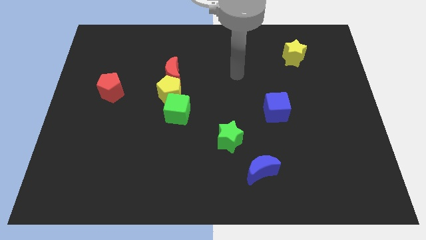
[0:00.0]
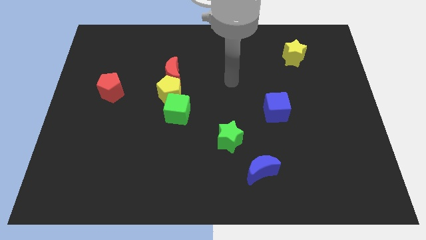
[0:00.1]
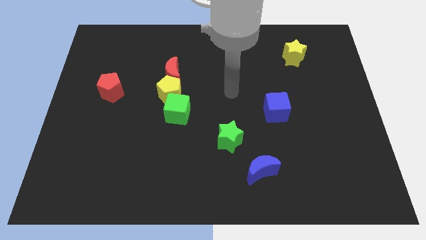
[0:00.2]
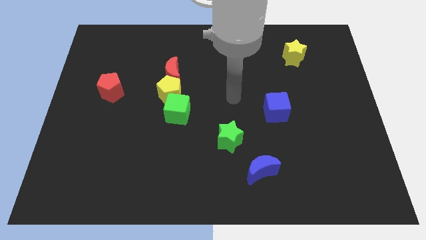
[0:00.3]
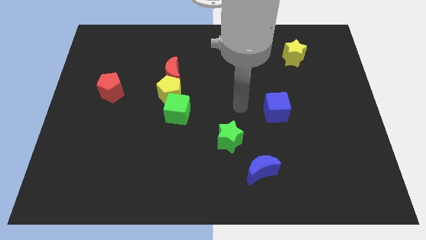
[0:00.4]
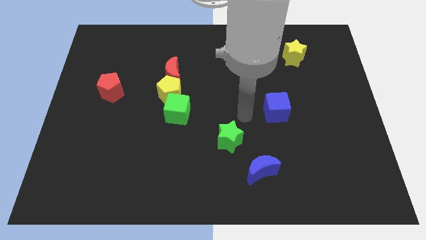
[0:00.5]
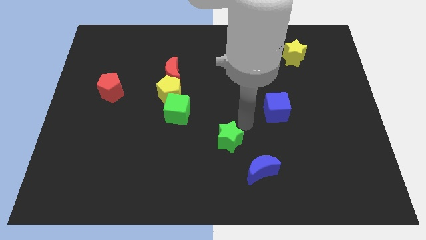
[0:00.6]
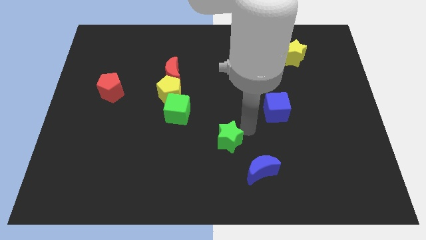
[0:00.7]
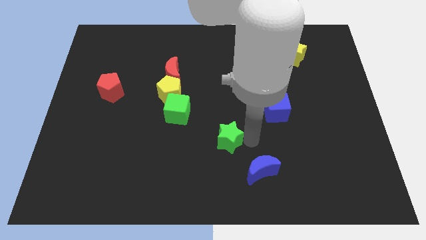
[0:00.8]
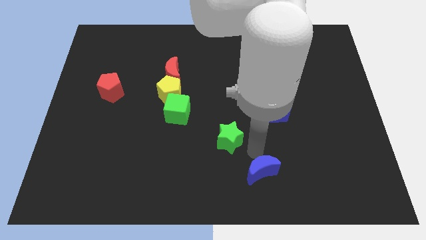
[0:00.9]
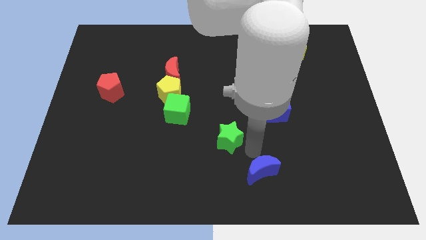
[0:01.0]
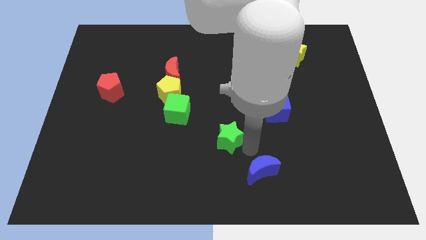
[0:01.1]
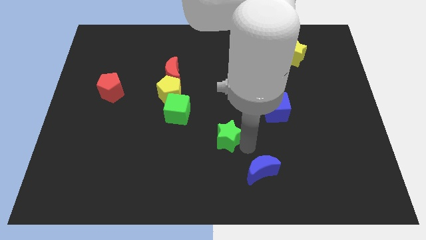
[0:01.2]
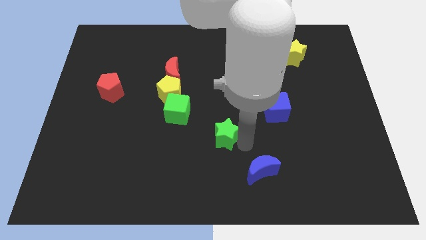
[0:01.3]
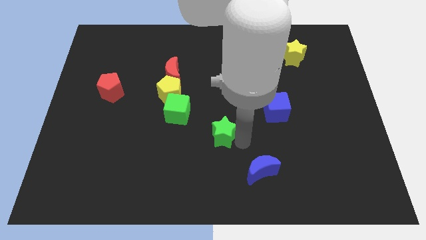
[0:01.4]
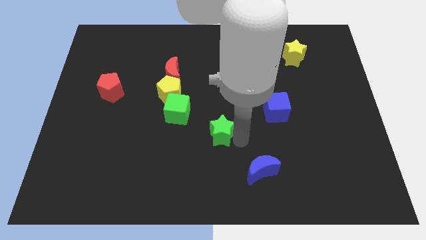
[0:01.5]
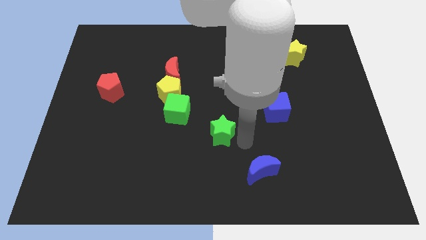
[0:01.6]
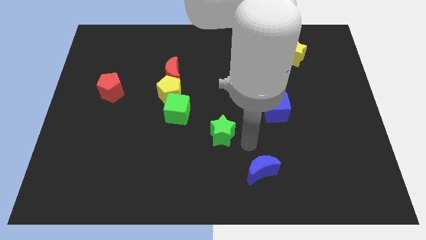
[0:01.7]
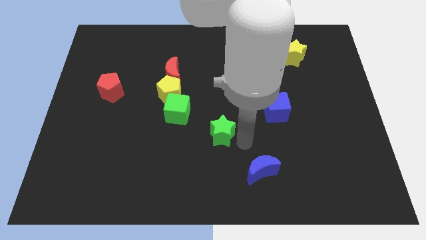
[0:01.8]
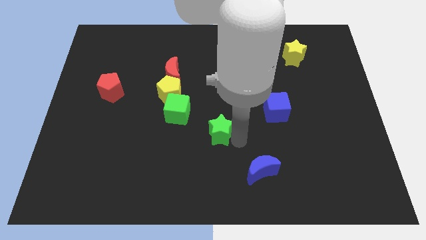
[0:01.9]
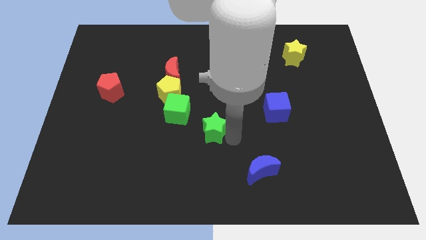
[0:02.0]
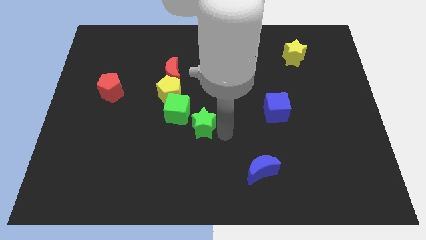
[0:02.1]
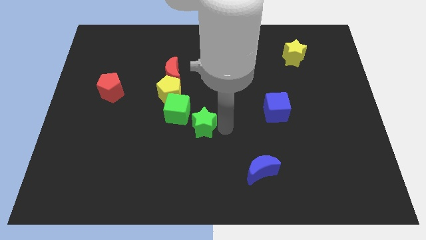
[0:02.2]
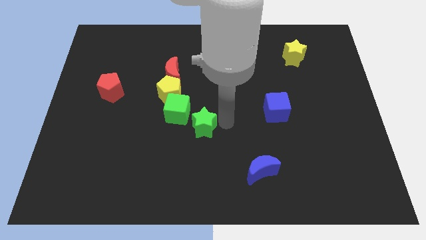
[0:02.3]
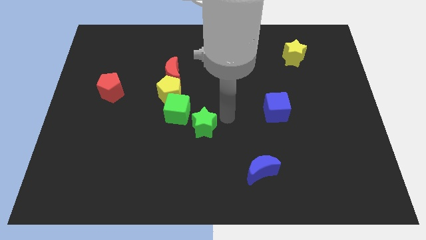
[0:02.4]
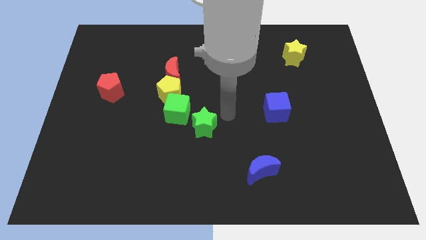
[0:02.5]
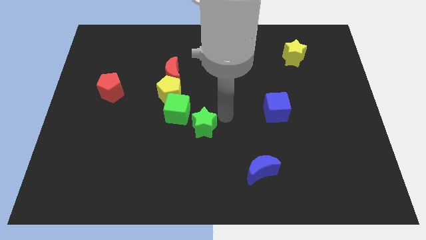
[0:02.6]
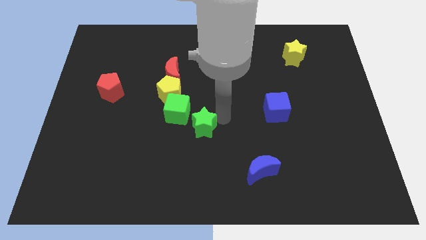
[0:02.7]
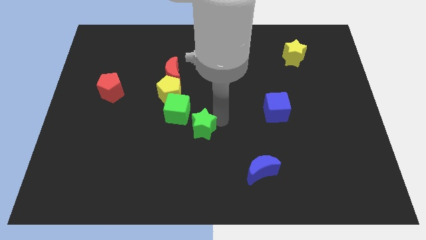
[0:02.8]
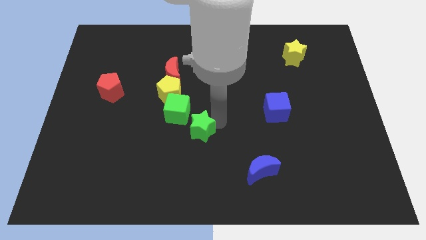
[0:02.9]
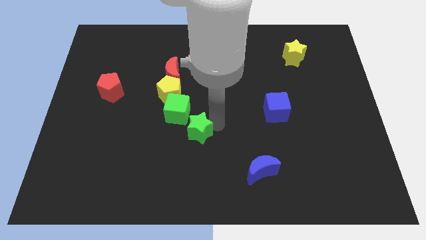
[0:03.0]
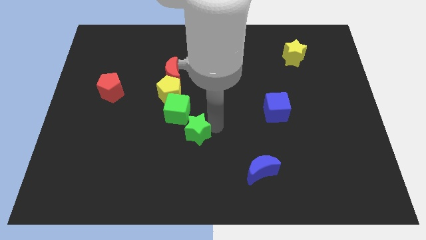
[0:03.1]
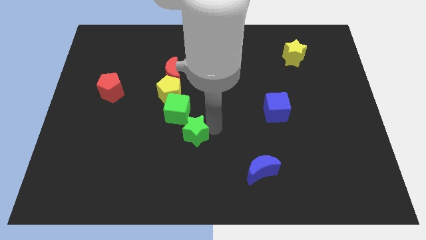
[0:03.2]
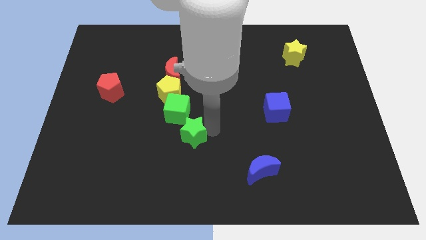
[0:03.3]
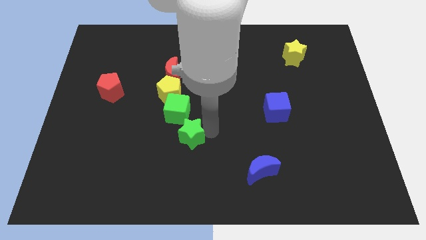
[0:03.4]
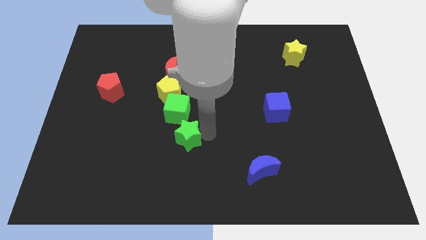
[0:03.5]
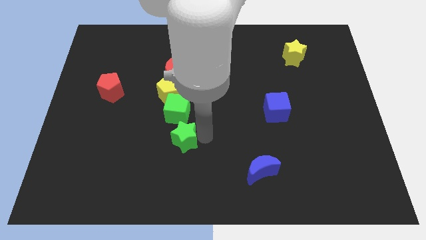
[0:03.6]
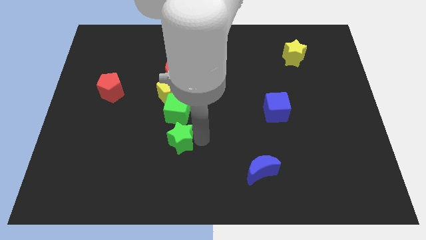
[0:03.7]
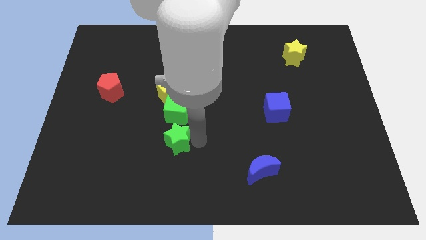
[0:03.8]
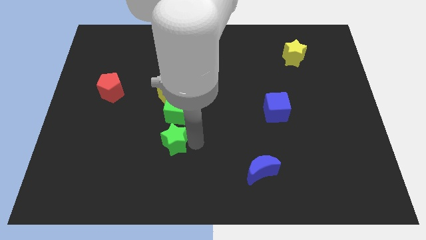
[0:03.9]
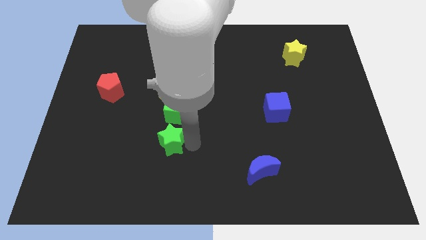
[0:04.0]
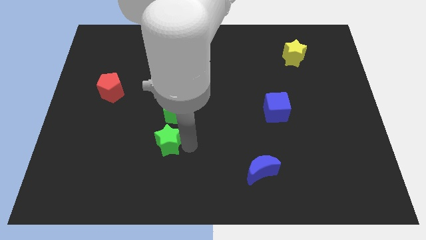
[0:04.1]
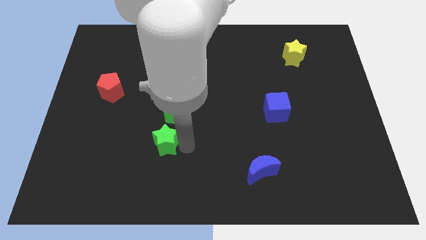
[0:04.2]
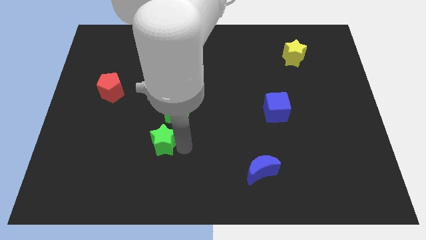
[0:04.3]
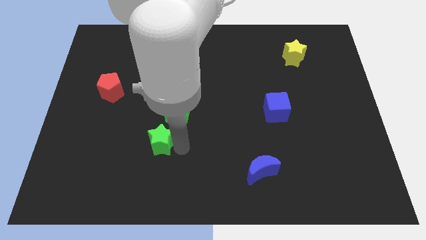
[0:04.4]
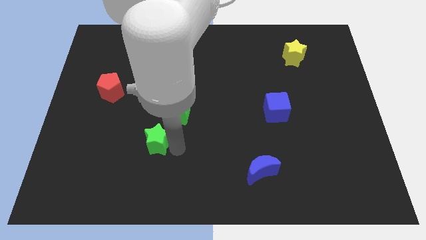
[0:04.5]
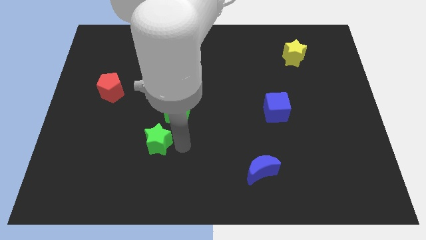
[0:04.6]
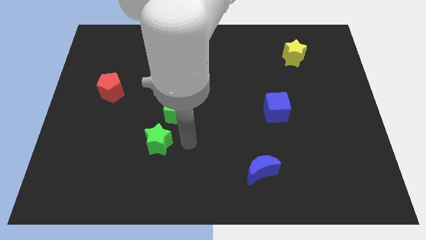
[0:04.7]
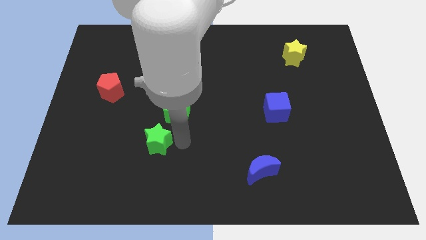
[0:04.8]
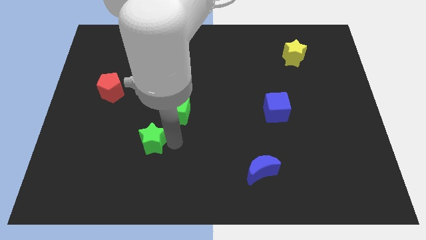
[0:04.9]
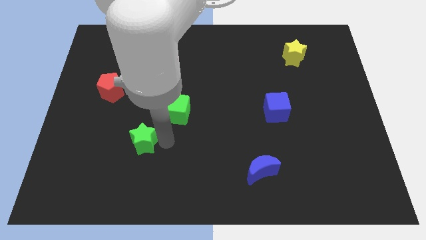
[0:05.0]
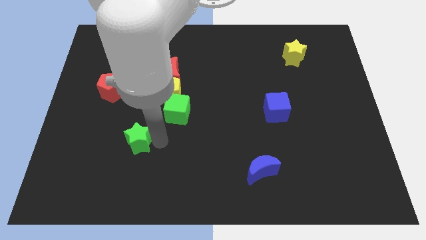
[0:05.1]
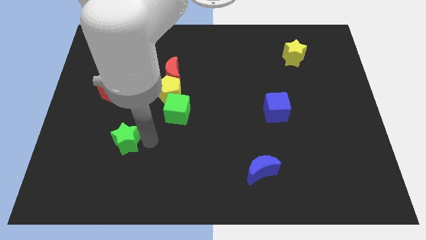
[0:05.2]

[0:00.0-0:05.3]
slide the green star to the left

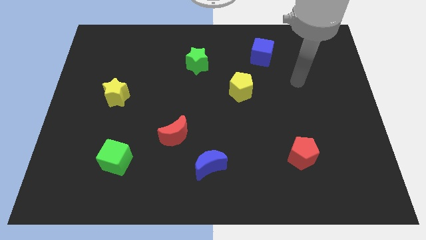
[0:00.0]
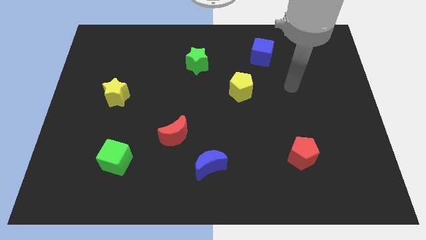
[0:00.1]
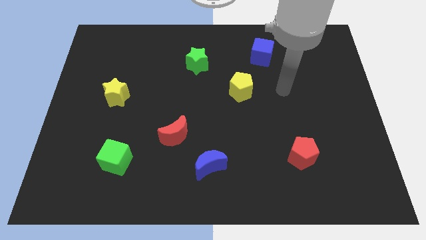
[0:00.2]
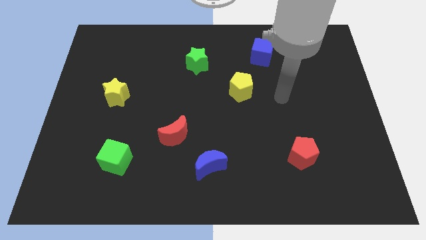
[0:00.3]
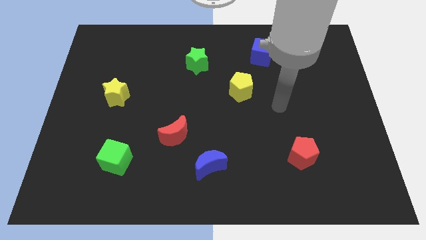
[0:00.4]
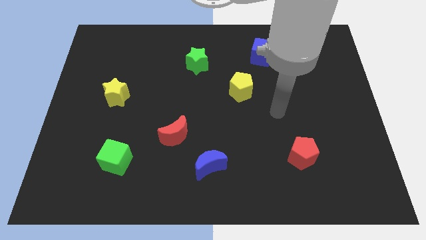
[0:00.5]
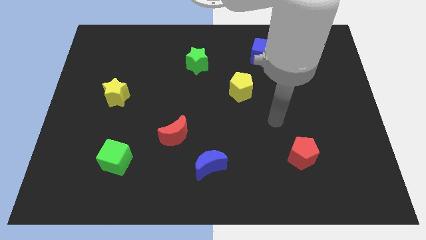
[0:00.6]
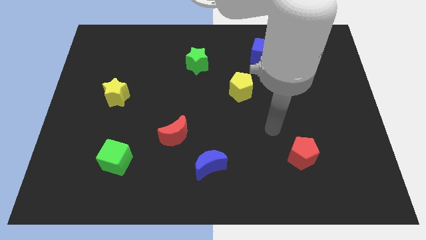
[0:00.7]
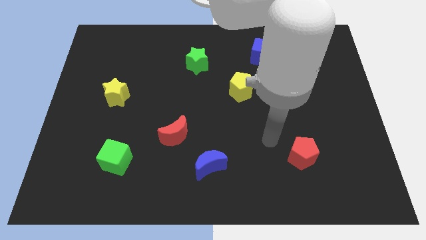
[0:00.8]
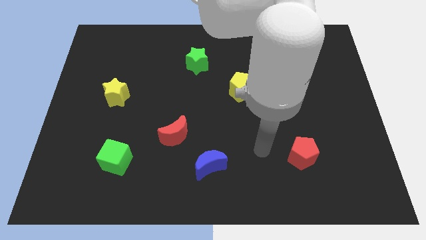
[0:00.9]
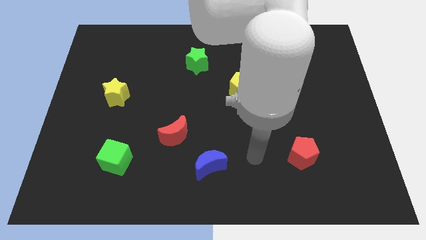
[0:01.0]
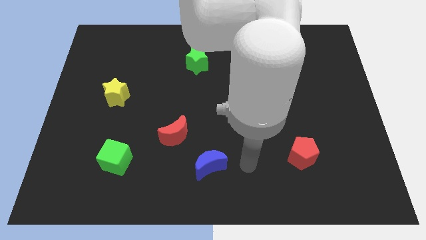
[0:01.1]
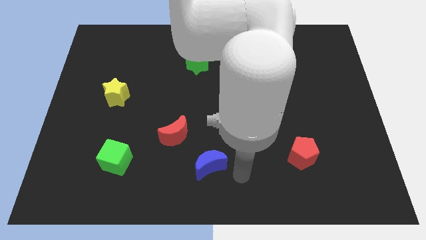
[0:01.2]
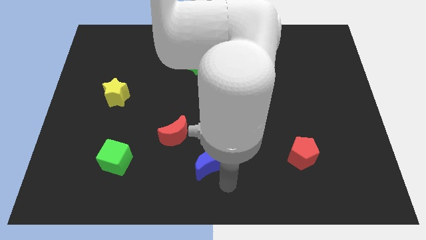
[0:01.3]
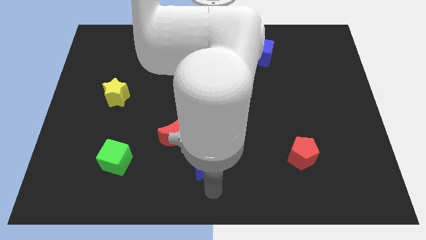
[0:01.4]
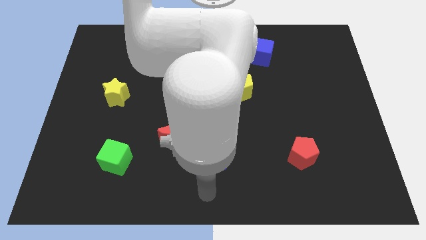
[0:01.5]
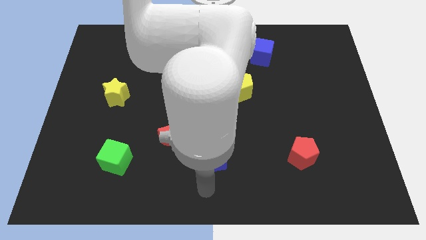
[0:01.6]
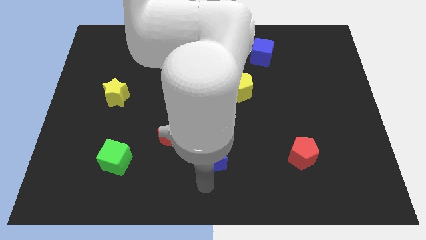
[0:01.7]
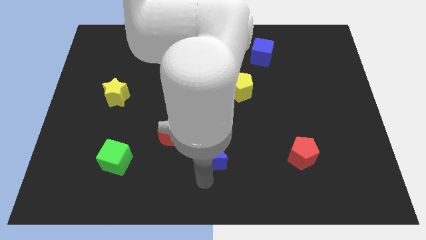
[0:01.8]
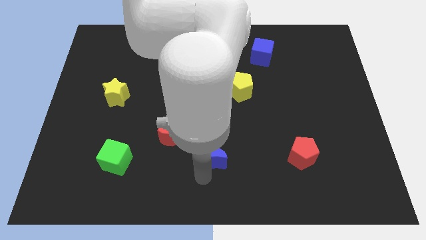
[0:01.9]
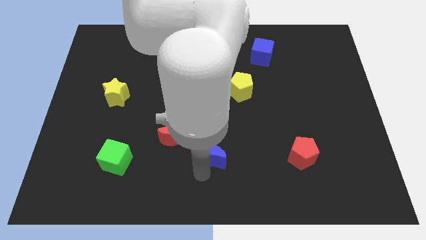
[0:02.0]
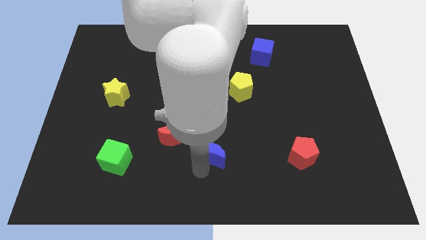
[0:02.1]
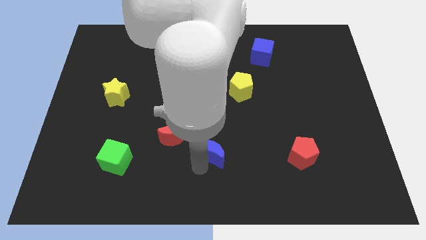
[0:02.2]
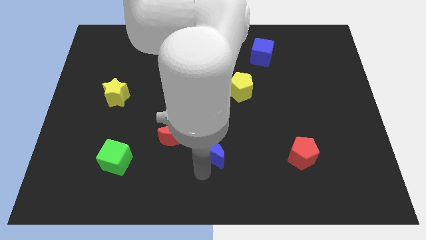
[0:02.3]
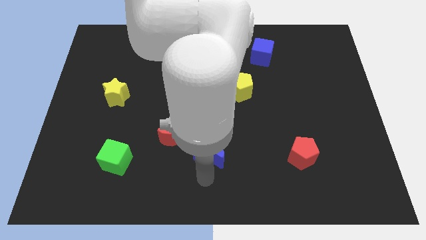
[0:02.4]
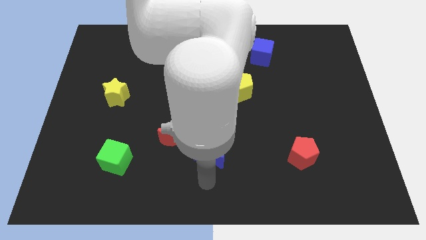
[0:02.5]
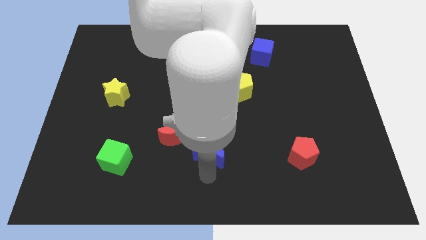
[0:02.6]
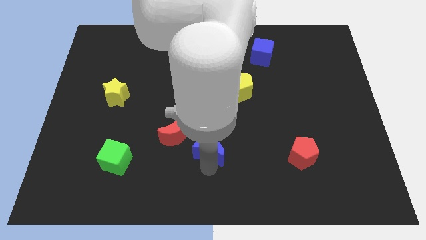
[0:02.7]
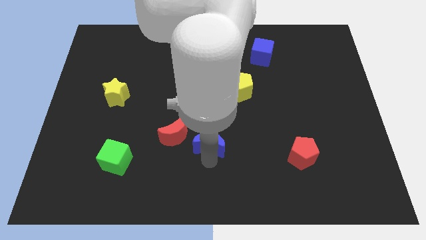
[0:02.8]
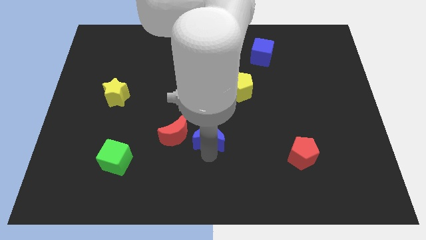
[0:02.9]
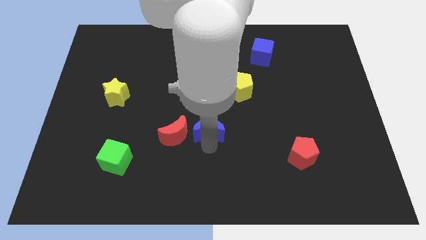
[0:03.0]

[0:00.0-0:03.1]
slightly move the blue moon up
